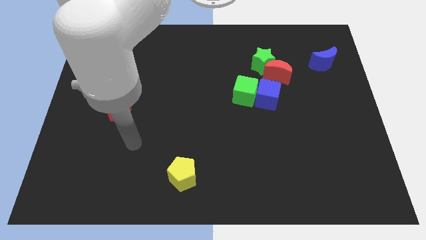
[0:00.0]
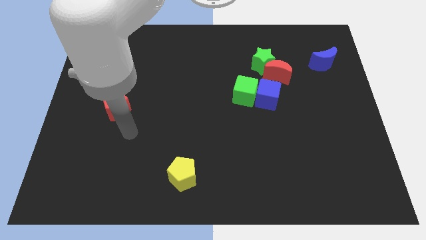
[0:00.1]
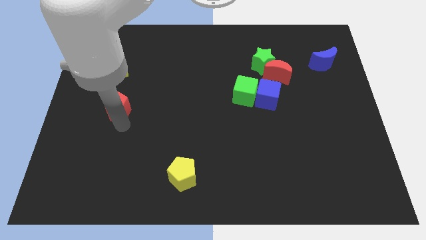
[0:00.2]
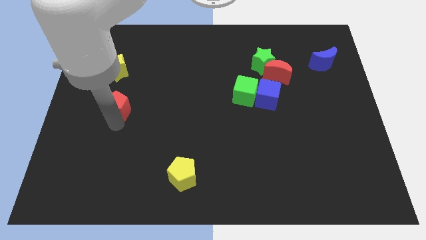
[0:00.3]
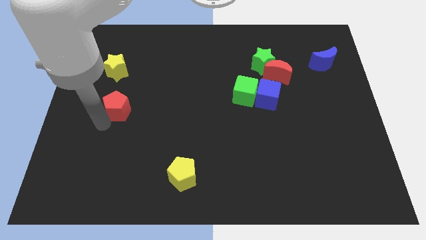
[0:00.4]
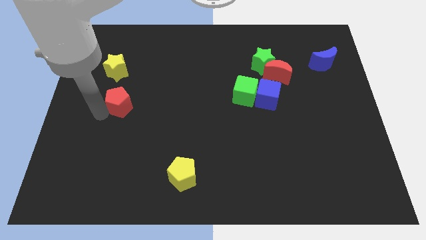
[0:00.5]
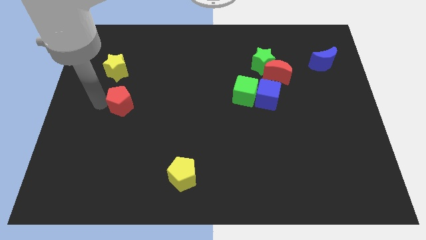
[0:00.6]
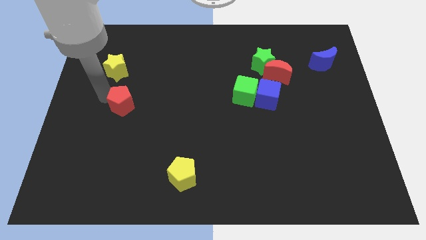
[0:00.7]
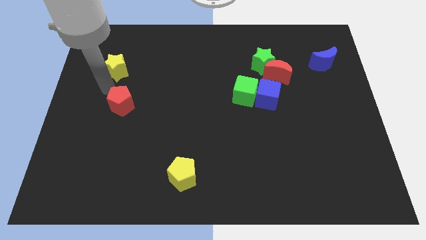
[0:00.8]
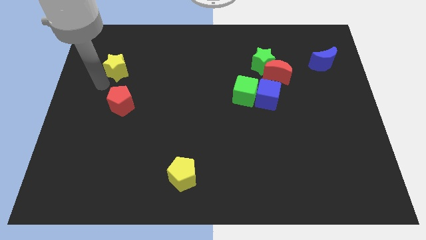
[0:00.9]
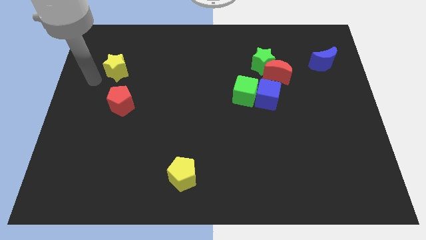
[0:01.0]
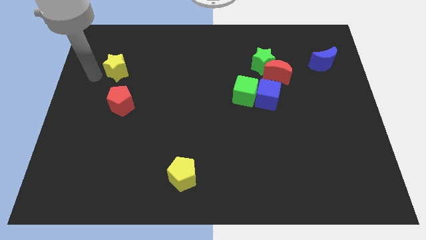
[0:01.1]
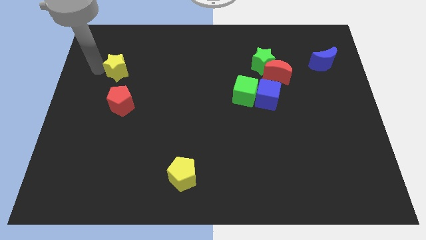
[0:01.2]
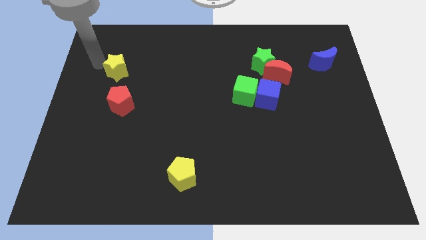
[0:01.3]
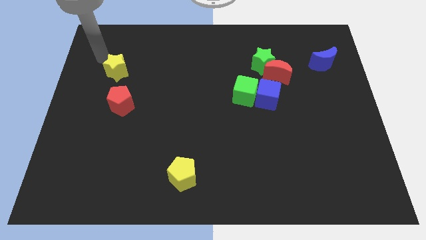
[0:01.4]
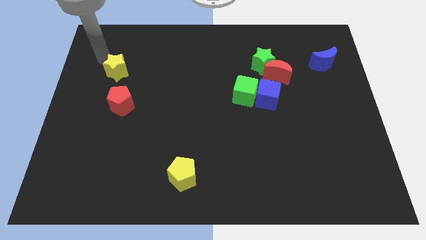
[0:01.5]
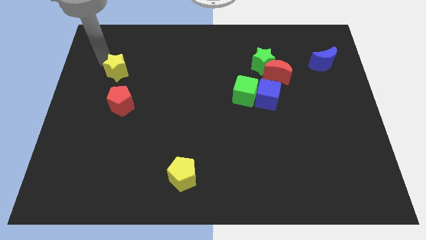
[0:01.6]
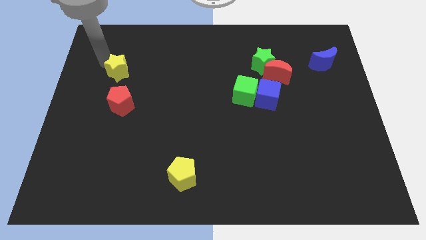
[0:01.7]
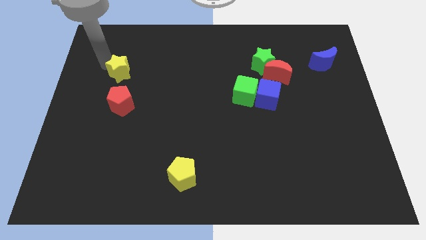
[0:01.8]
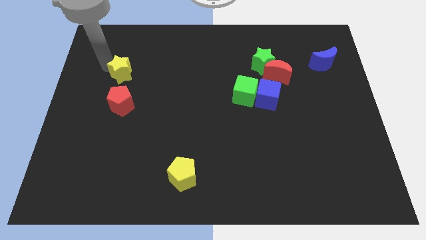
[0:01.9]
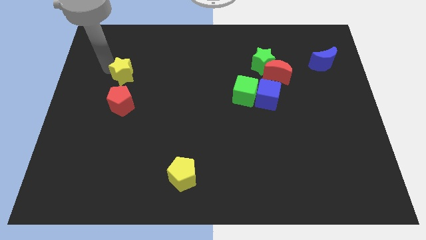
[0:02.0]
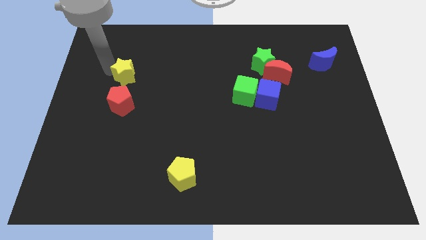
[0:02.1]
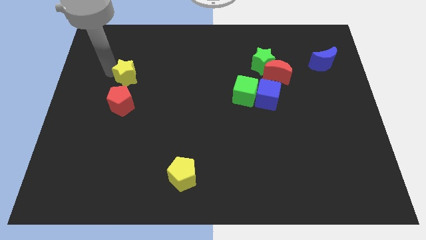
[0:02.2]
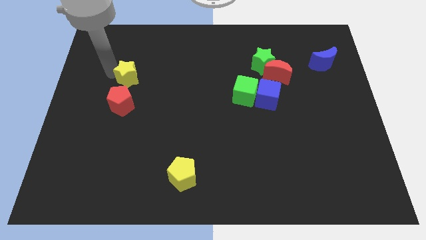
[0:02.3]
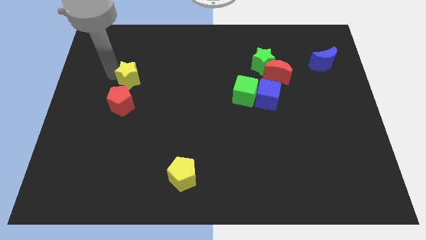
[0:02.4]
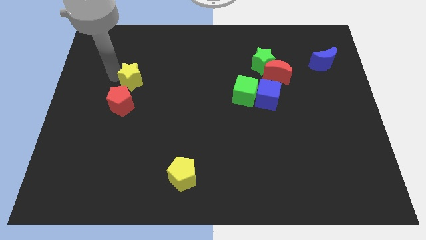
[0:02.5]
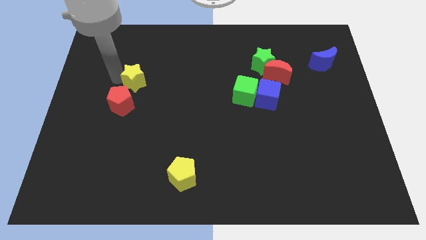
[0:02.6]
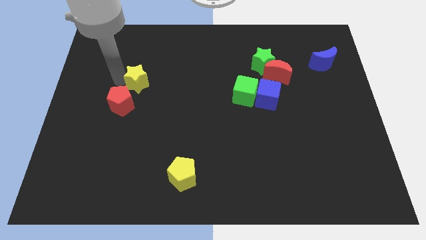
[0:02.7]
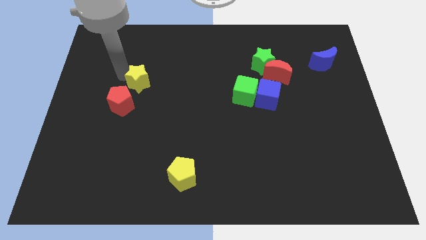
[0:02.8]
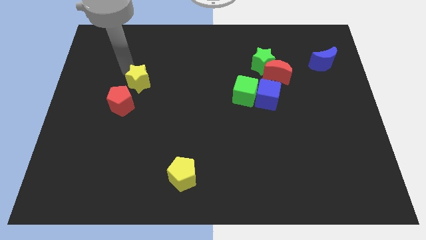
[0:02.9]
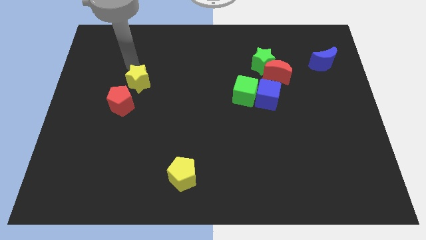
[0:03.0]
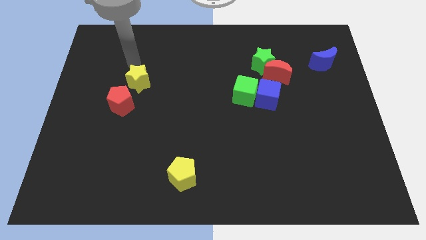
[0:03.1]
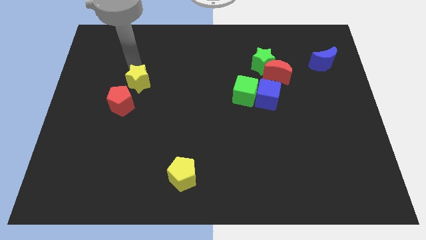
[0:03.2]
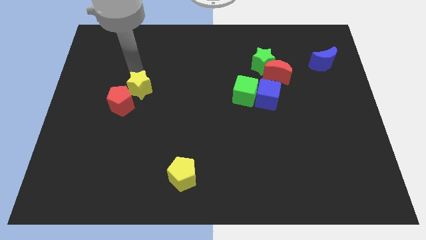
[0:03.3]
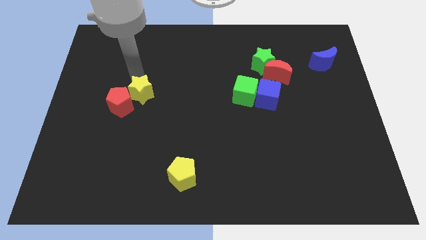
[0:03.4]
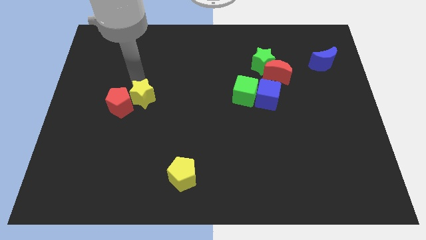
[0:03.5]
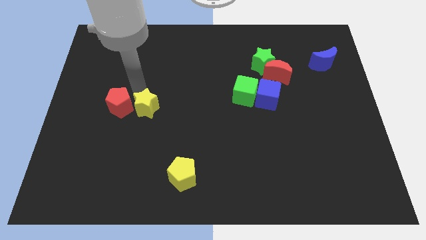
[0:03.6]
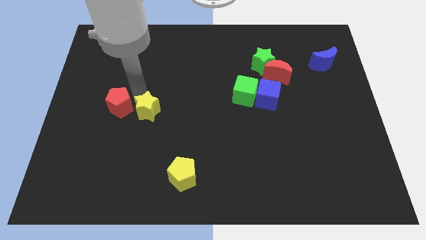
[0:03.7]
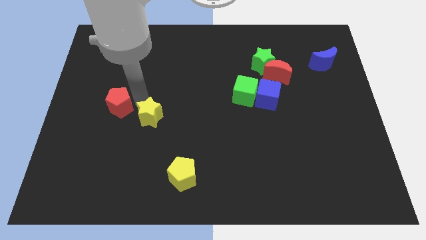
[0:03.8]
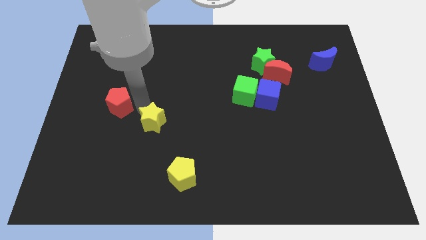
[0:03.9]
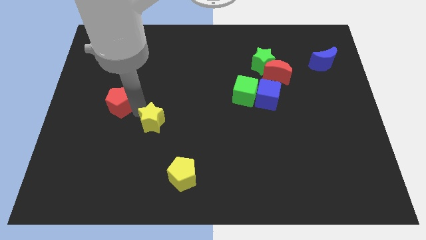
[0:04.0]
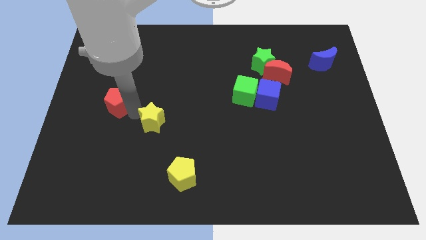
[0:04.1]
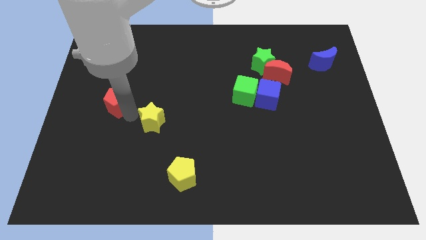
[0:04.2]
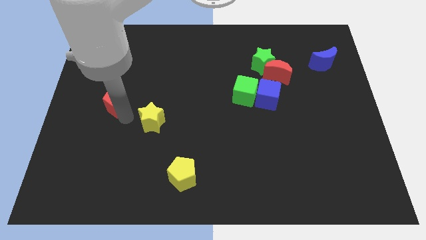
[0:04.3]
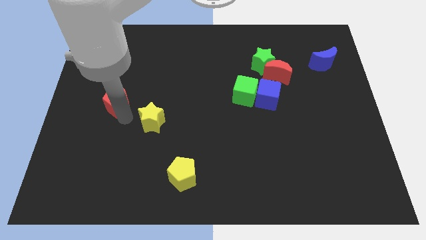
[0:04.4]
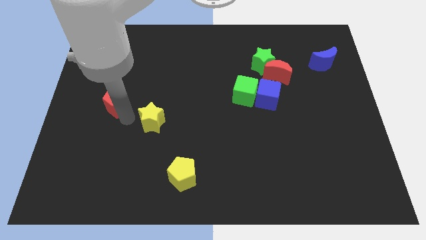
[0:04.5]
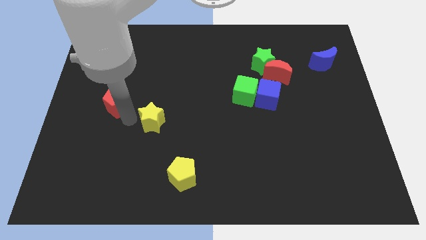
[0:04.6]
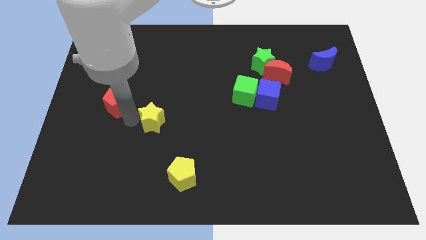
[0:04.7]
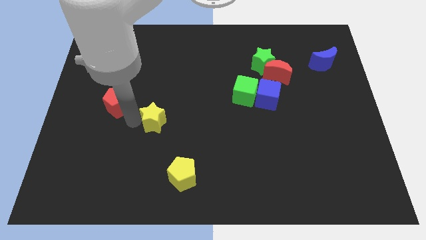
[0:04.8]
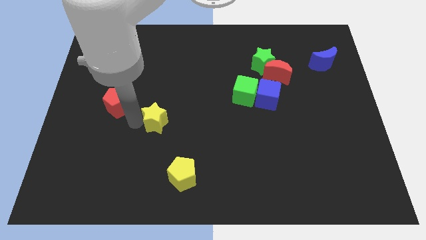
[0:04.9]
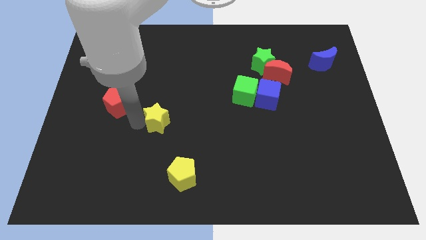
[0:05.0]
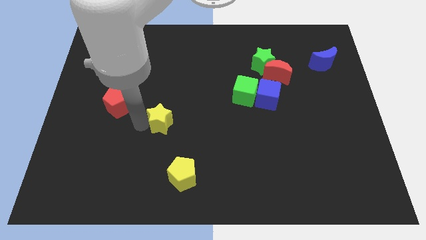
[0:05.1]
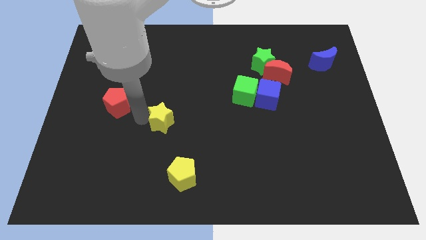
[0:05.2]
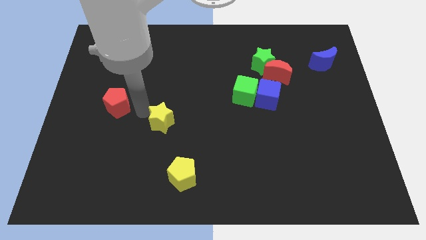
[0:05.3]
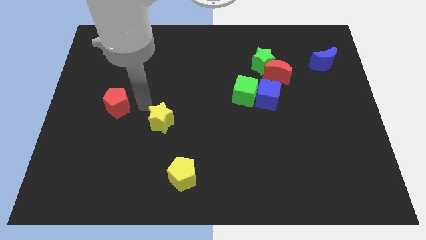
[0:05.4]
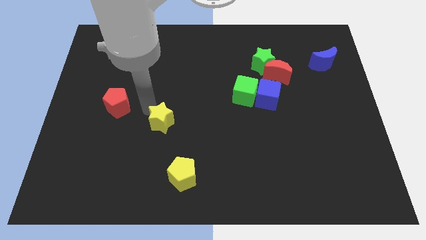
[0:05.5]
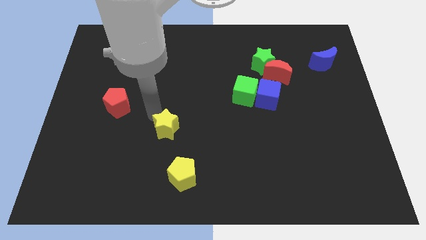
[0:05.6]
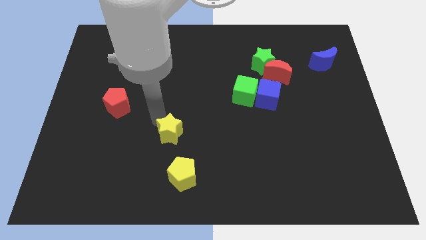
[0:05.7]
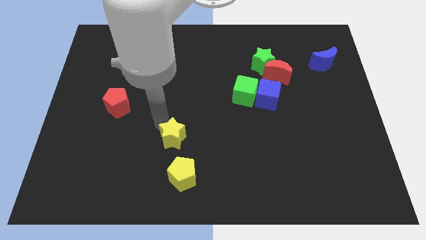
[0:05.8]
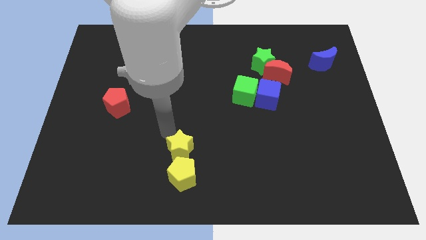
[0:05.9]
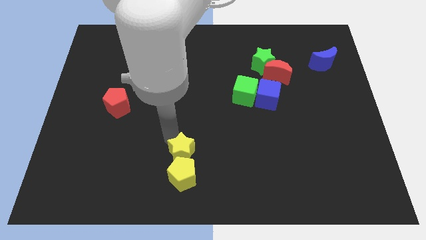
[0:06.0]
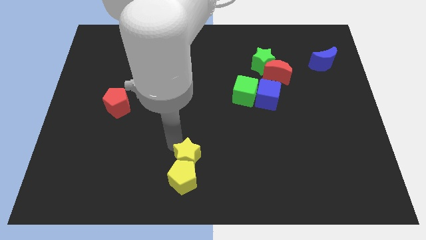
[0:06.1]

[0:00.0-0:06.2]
push the yellow star to the bottom
